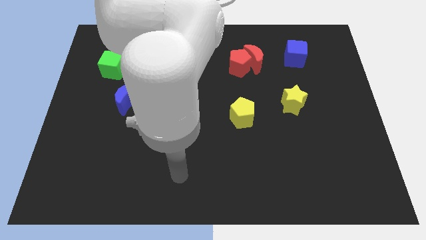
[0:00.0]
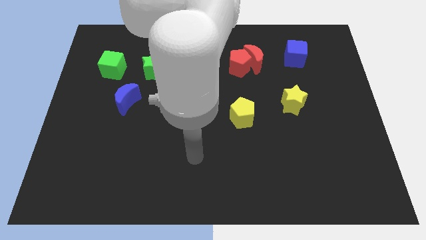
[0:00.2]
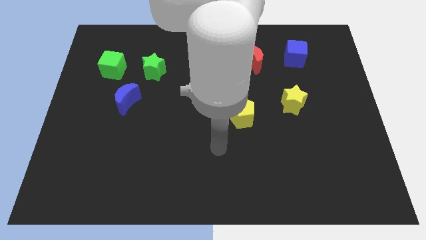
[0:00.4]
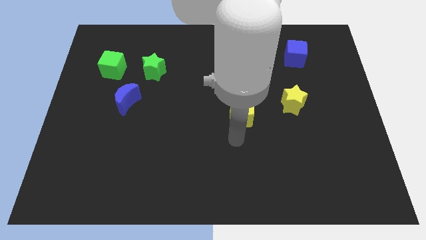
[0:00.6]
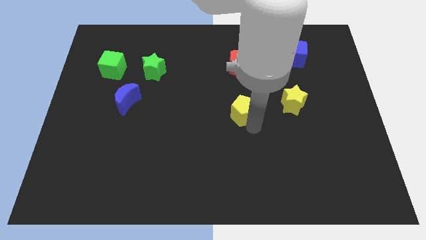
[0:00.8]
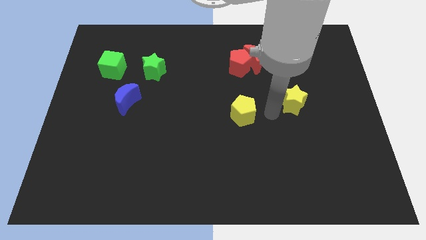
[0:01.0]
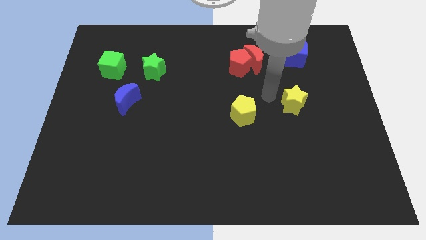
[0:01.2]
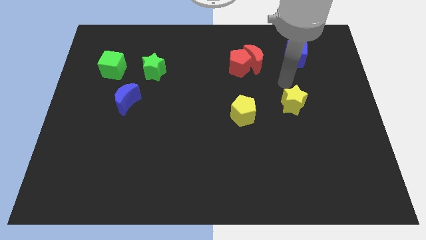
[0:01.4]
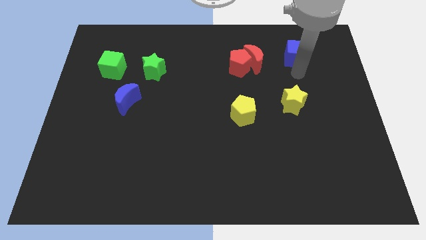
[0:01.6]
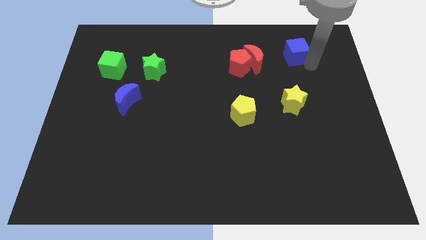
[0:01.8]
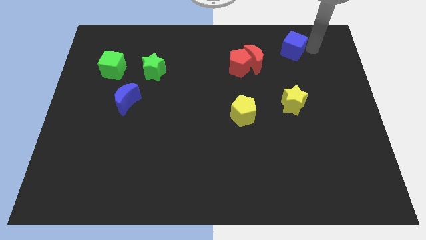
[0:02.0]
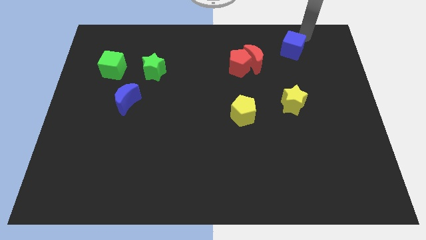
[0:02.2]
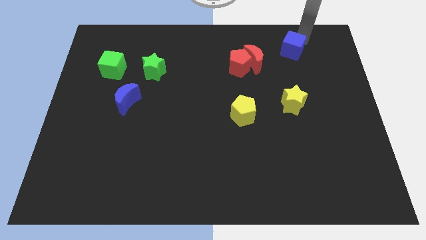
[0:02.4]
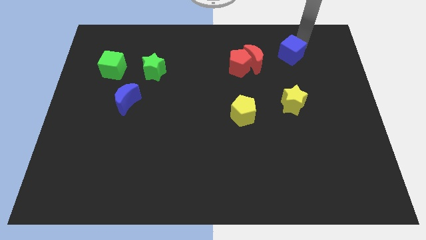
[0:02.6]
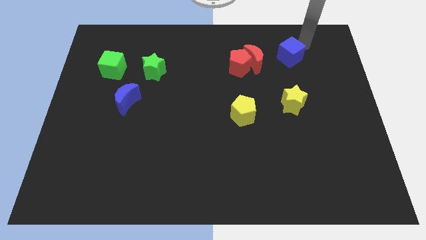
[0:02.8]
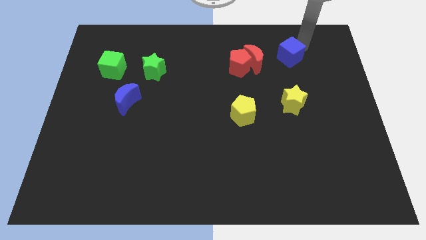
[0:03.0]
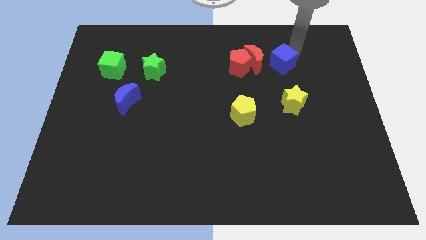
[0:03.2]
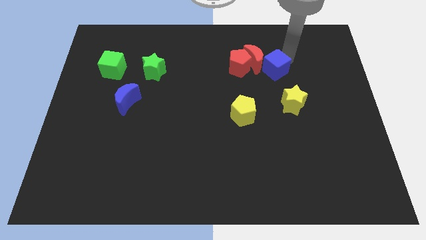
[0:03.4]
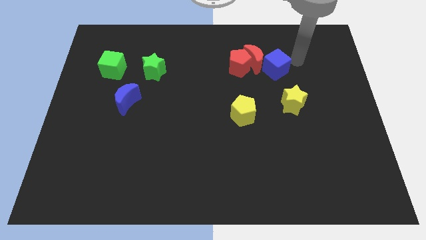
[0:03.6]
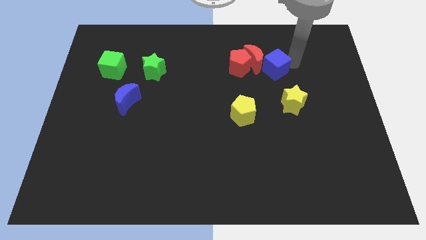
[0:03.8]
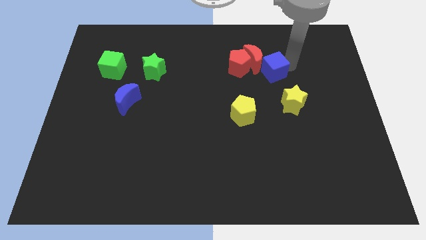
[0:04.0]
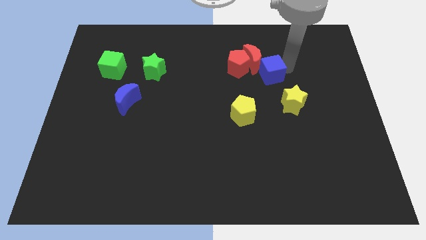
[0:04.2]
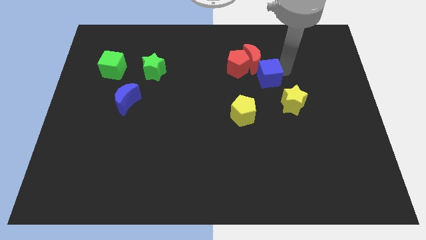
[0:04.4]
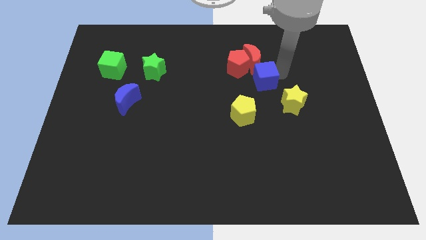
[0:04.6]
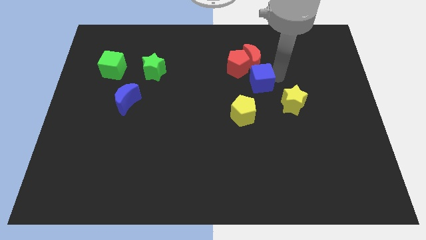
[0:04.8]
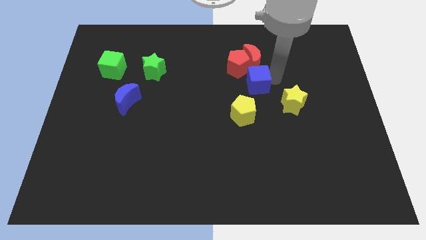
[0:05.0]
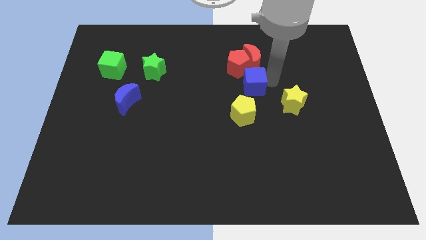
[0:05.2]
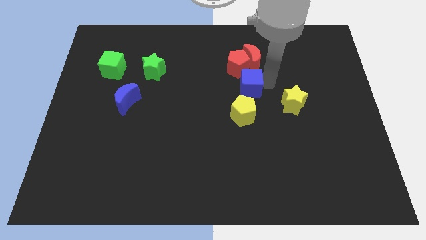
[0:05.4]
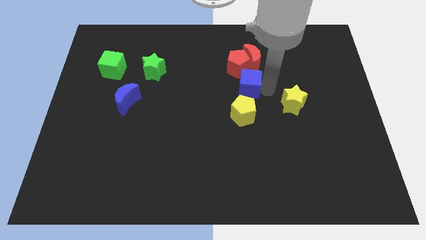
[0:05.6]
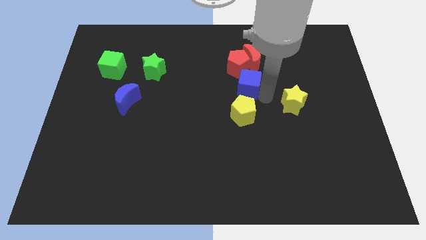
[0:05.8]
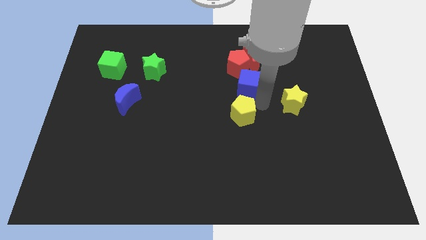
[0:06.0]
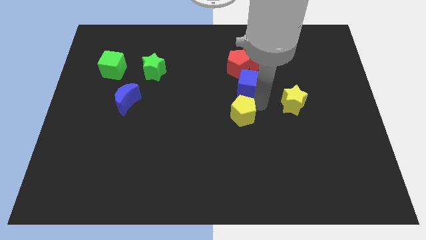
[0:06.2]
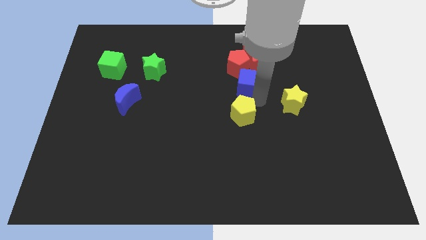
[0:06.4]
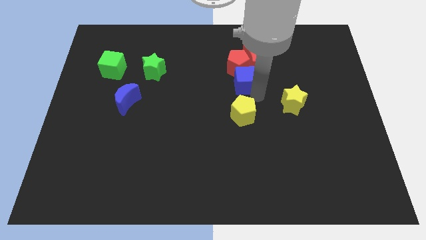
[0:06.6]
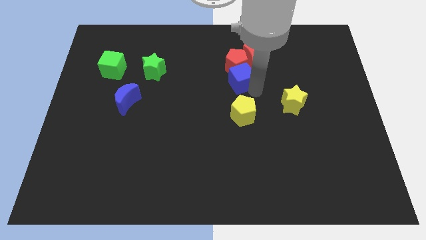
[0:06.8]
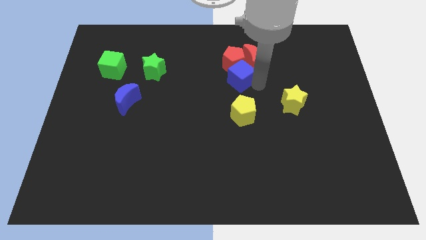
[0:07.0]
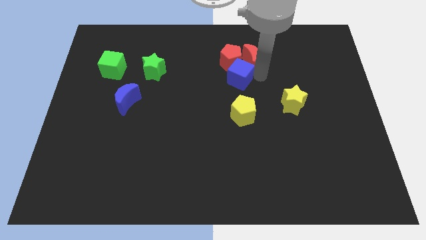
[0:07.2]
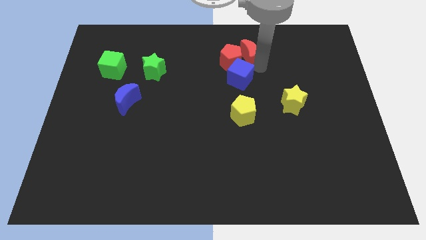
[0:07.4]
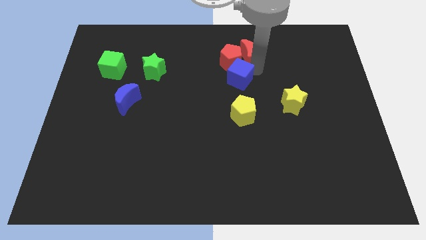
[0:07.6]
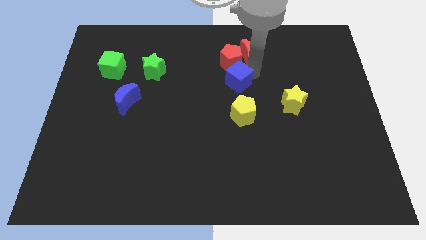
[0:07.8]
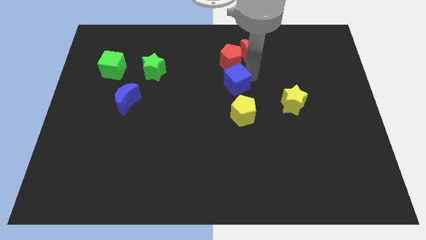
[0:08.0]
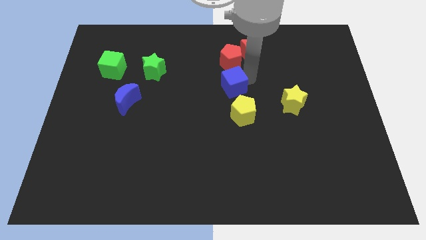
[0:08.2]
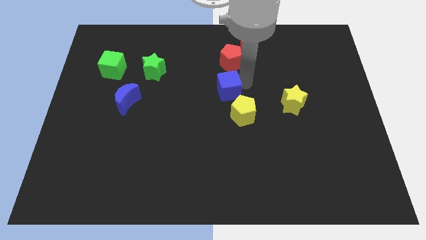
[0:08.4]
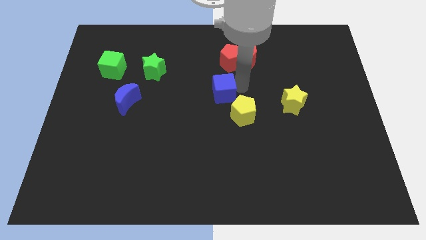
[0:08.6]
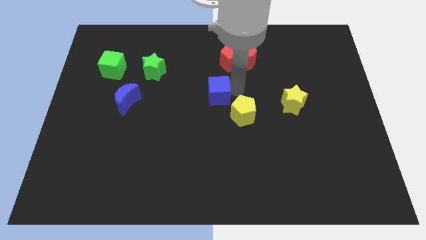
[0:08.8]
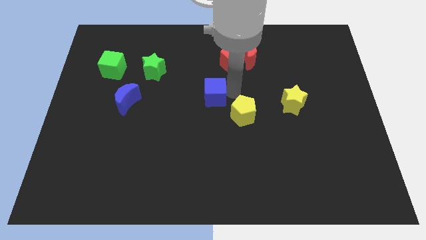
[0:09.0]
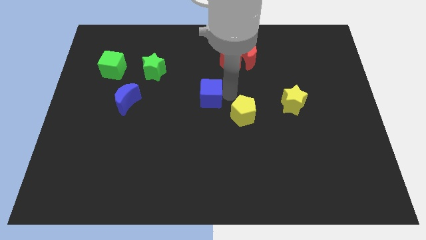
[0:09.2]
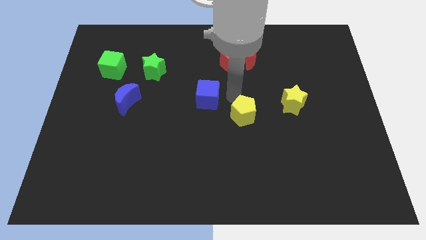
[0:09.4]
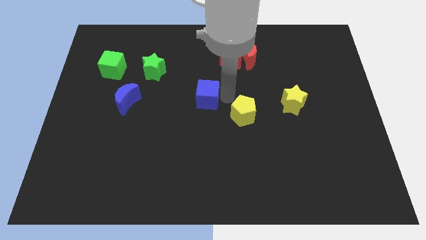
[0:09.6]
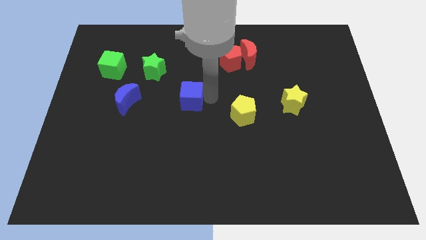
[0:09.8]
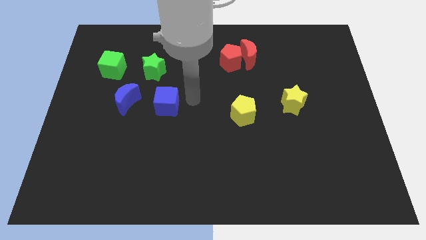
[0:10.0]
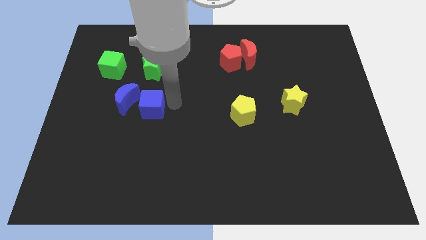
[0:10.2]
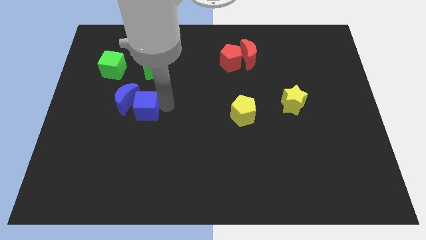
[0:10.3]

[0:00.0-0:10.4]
slide the blue cube to the blue moon

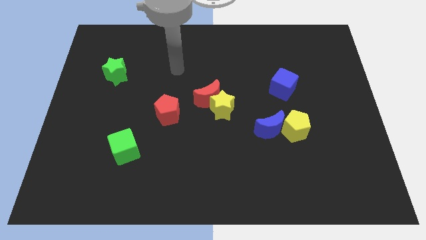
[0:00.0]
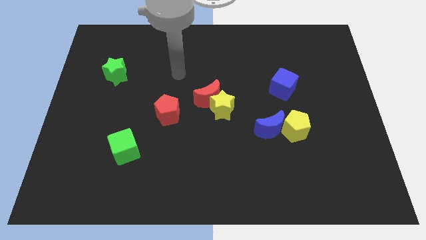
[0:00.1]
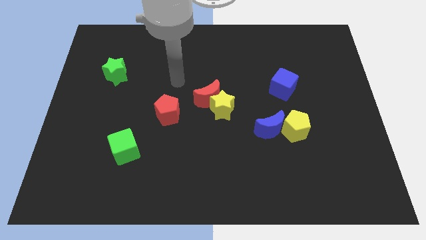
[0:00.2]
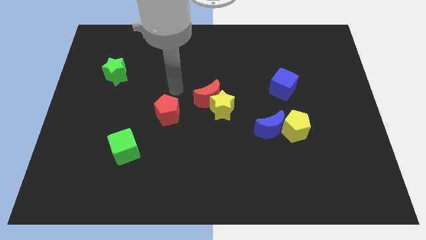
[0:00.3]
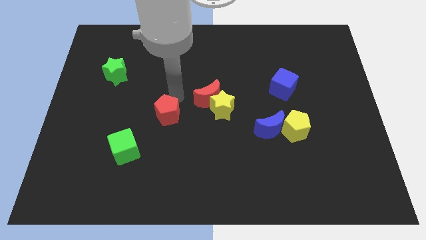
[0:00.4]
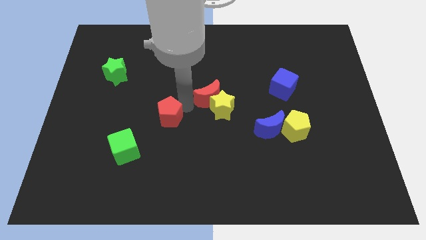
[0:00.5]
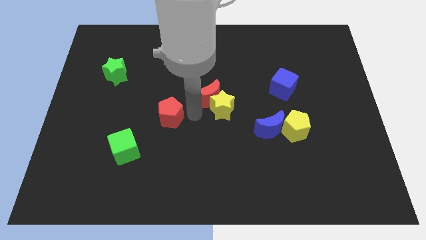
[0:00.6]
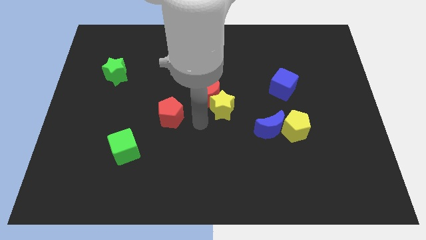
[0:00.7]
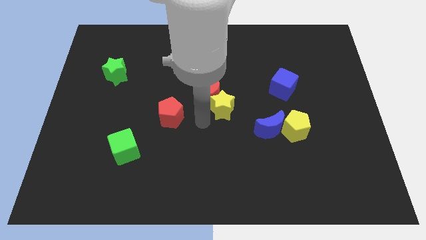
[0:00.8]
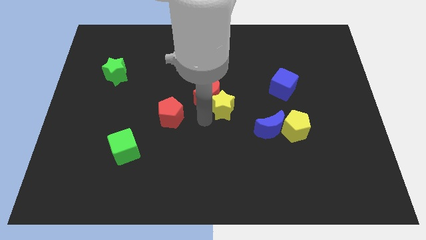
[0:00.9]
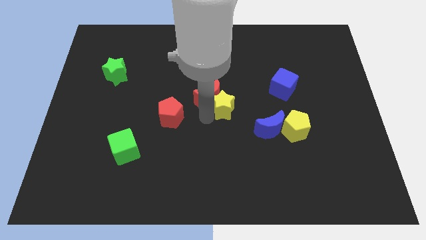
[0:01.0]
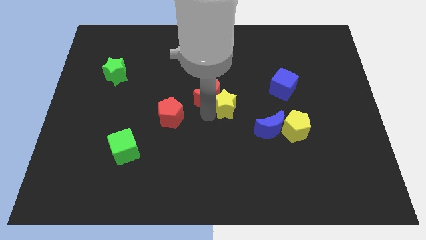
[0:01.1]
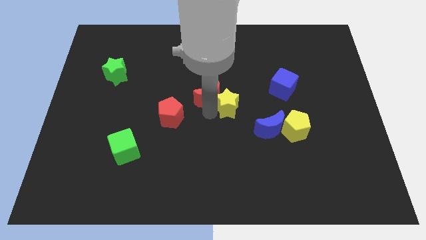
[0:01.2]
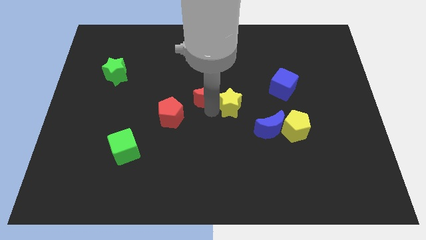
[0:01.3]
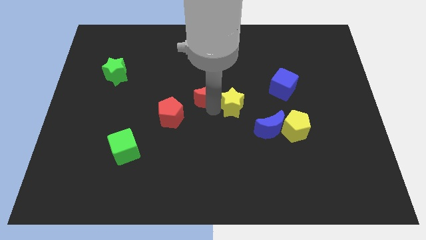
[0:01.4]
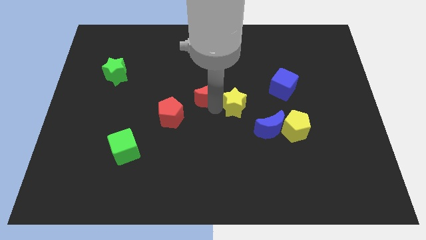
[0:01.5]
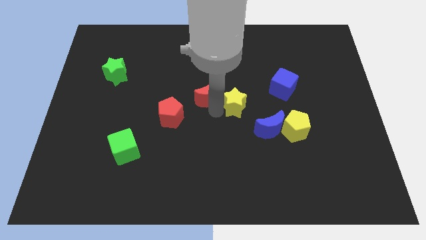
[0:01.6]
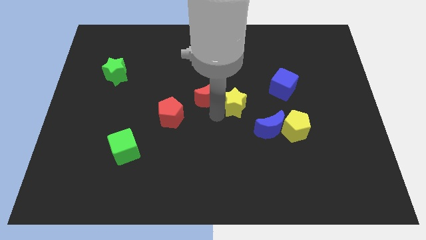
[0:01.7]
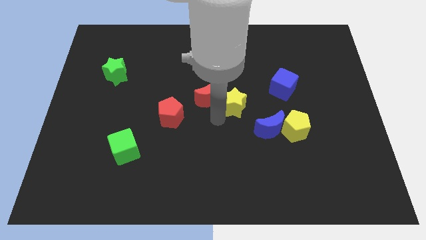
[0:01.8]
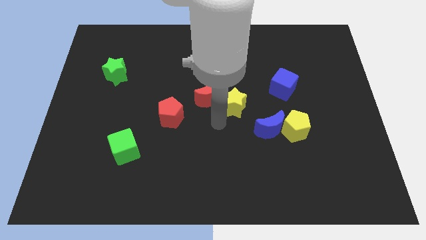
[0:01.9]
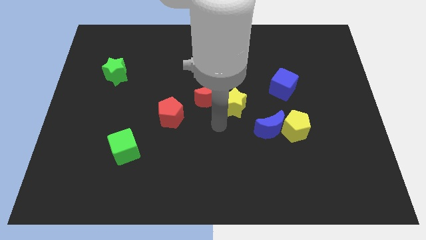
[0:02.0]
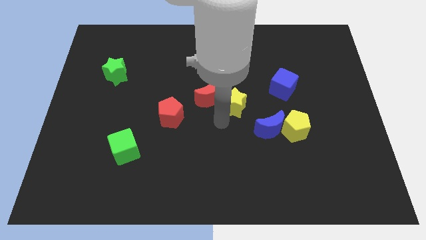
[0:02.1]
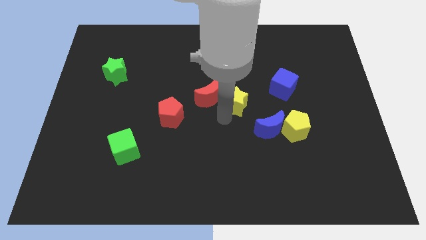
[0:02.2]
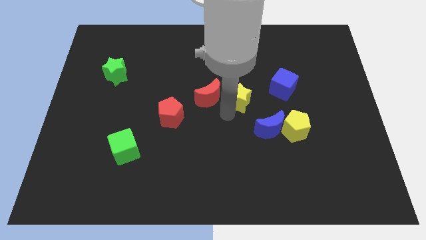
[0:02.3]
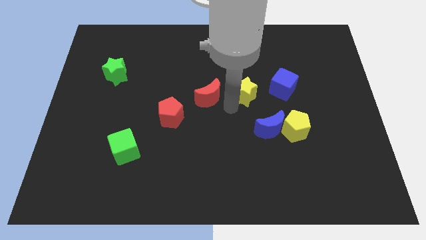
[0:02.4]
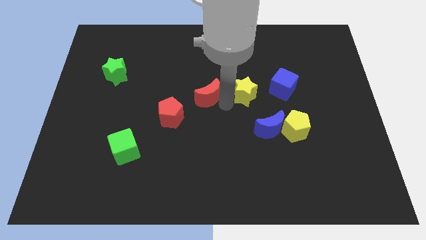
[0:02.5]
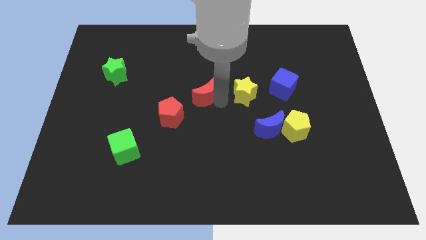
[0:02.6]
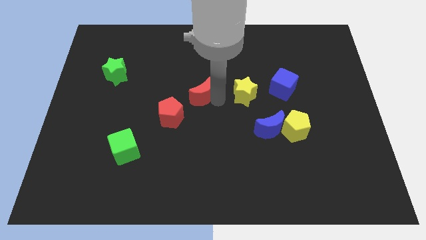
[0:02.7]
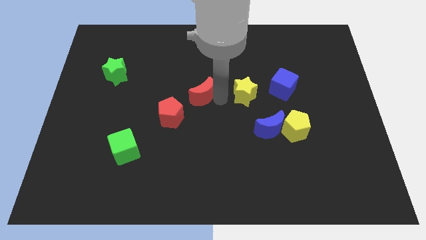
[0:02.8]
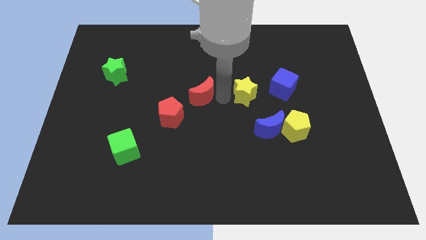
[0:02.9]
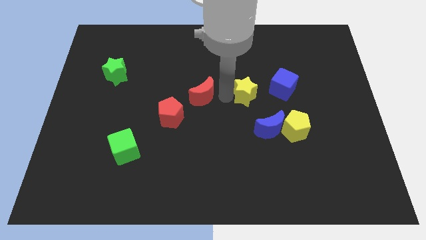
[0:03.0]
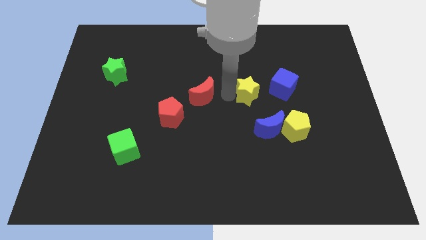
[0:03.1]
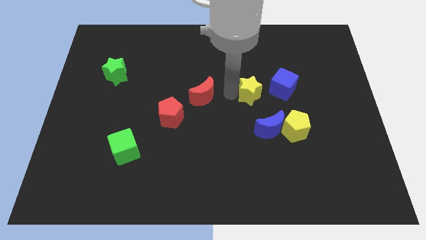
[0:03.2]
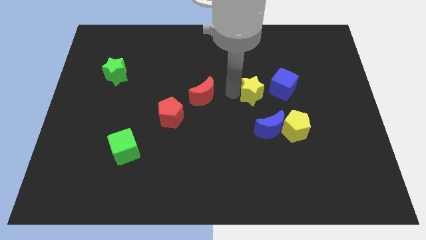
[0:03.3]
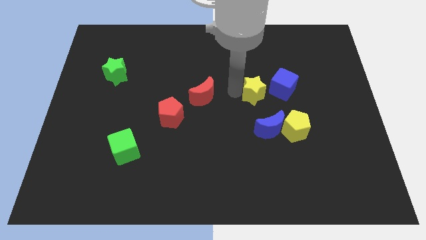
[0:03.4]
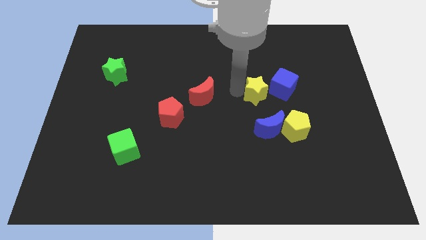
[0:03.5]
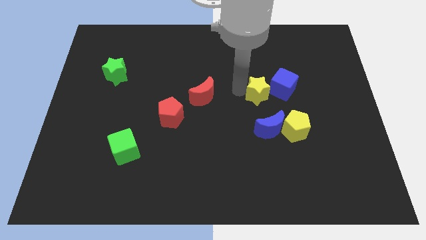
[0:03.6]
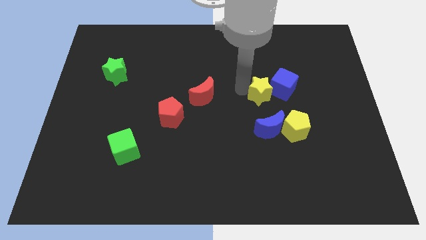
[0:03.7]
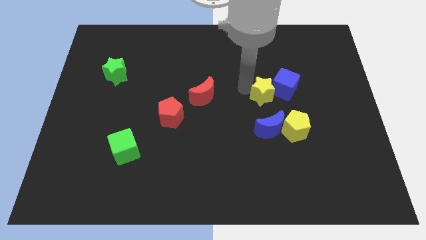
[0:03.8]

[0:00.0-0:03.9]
push the yellow star to the blue cube
